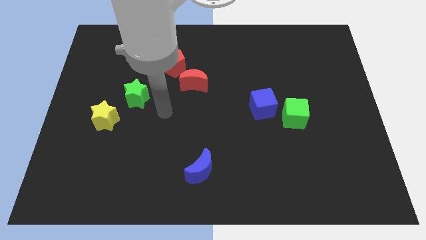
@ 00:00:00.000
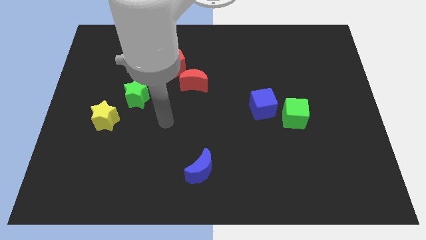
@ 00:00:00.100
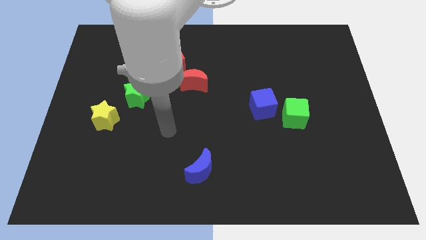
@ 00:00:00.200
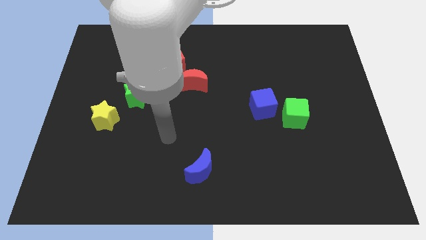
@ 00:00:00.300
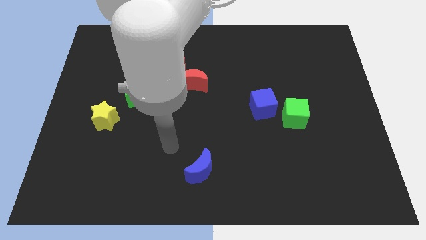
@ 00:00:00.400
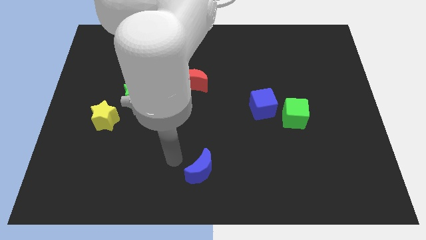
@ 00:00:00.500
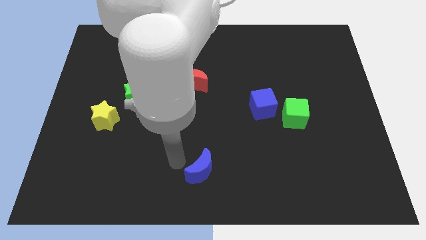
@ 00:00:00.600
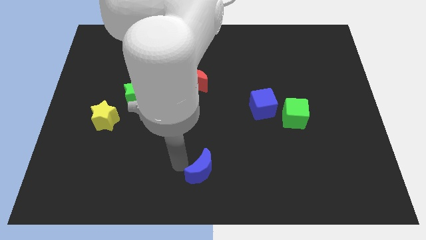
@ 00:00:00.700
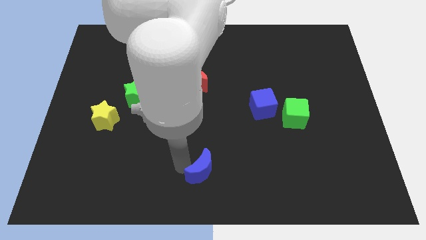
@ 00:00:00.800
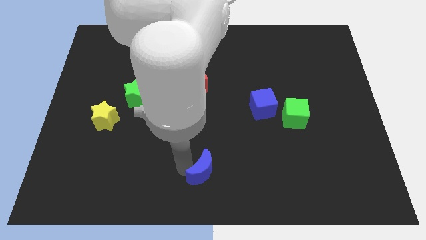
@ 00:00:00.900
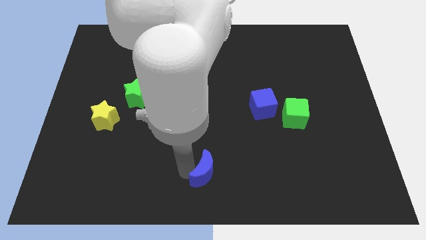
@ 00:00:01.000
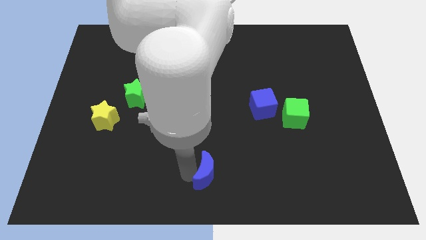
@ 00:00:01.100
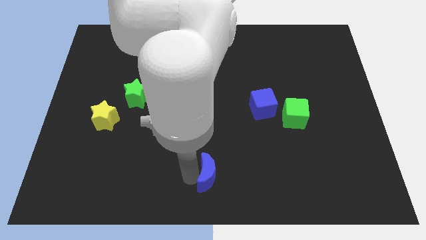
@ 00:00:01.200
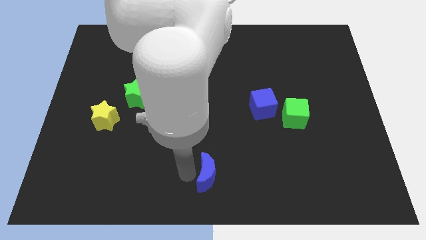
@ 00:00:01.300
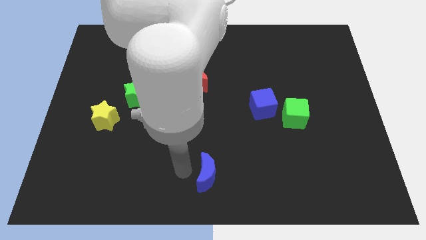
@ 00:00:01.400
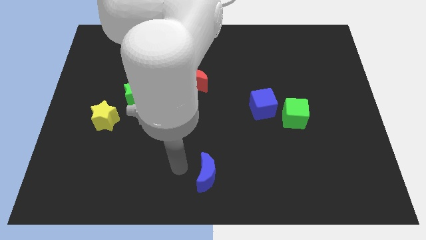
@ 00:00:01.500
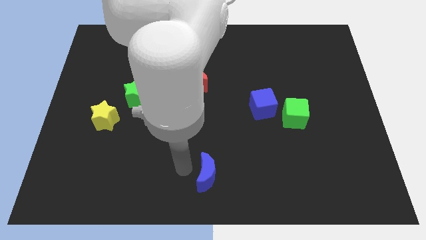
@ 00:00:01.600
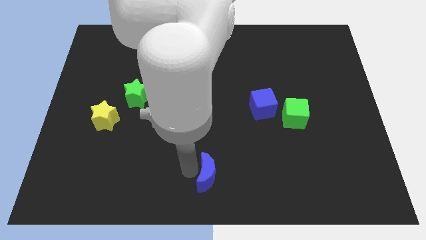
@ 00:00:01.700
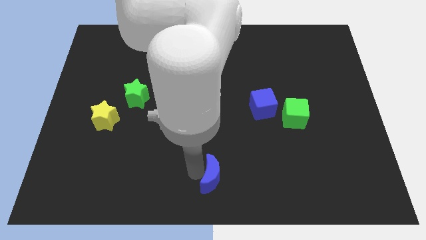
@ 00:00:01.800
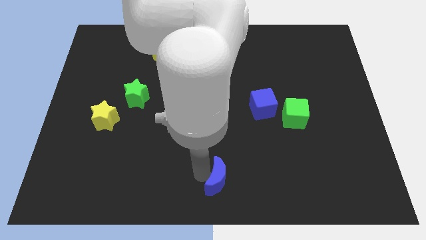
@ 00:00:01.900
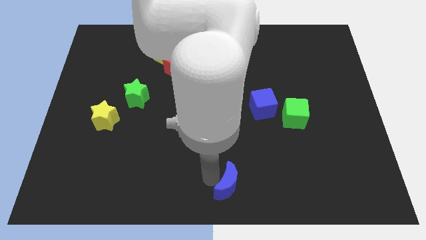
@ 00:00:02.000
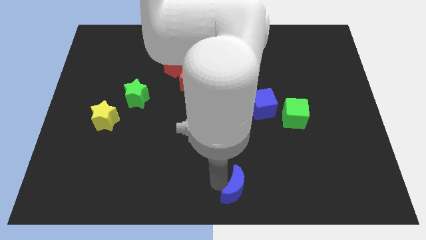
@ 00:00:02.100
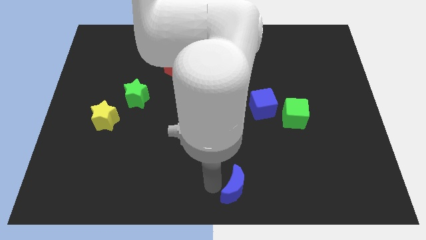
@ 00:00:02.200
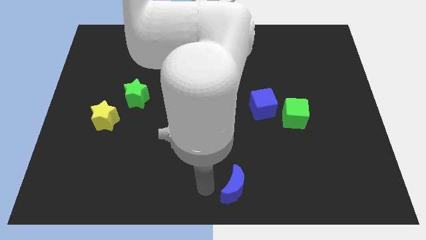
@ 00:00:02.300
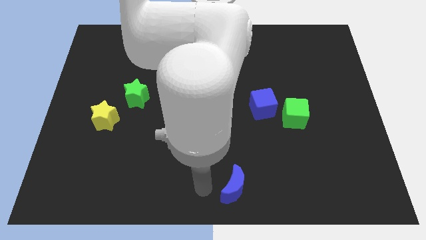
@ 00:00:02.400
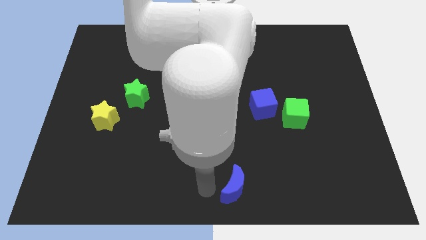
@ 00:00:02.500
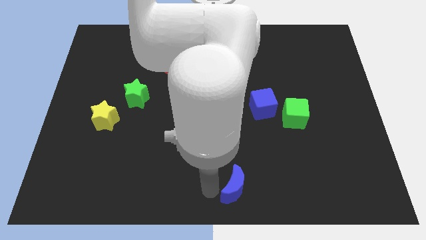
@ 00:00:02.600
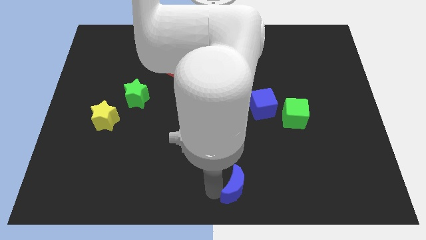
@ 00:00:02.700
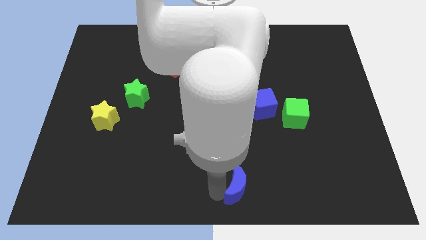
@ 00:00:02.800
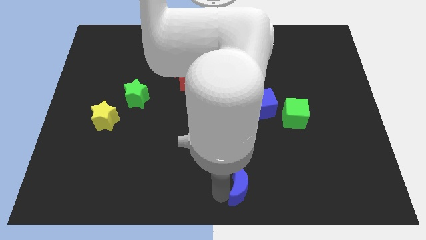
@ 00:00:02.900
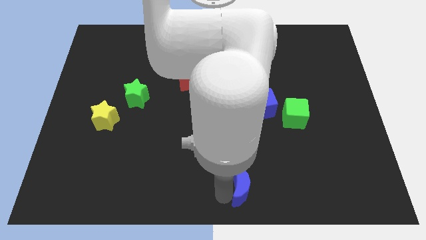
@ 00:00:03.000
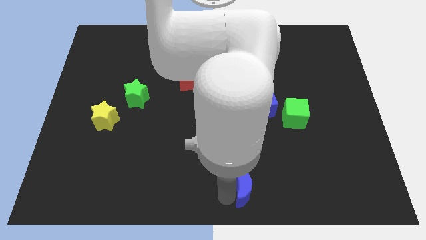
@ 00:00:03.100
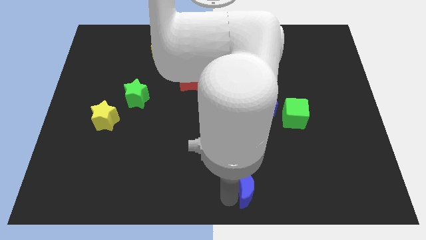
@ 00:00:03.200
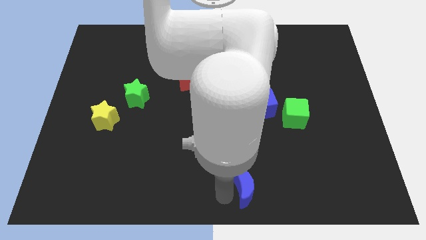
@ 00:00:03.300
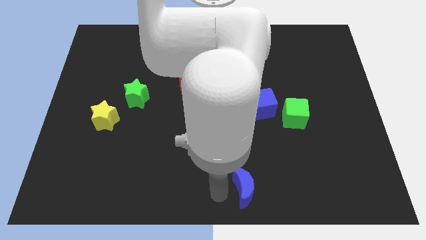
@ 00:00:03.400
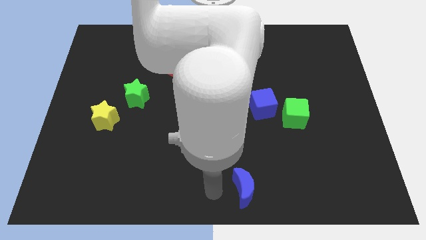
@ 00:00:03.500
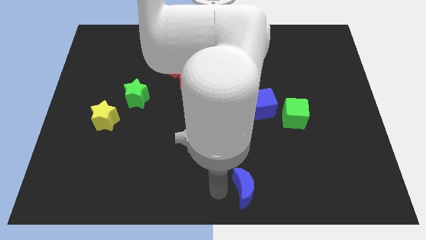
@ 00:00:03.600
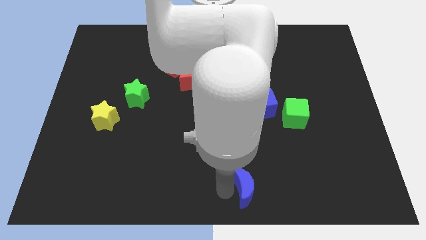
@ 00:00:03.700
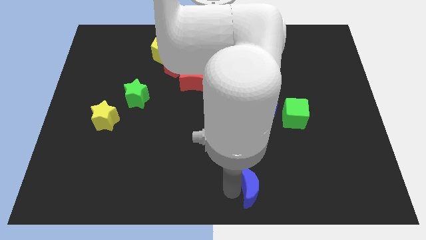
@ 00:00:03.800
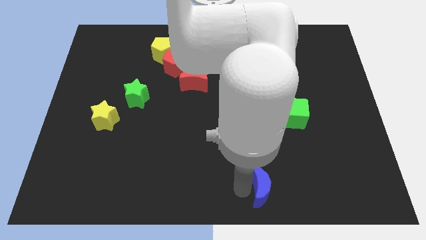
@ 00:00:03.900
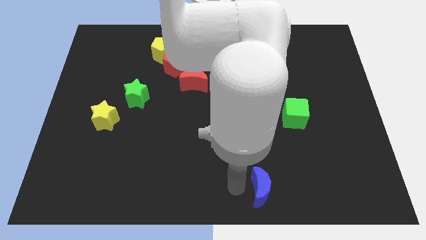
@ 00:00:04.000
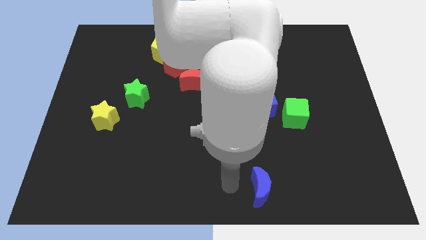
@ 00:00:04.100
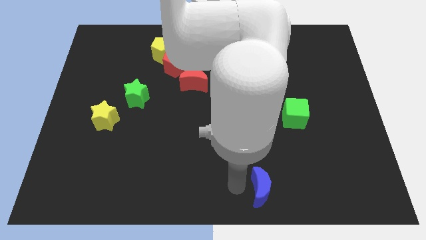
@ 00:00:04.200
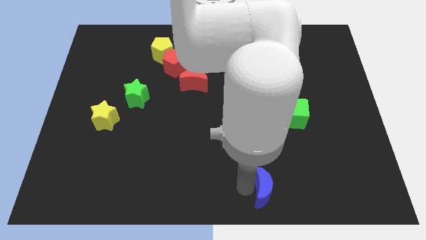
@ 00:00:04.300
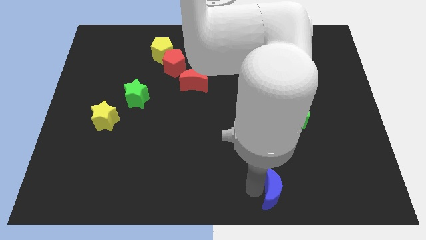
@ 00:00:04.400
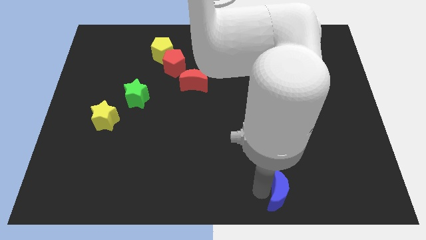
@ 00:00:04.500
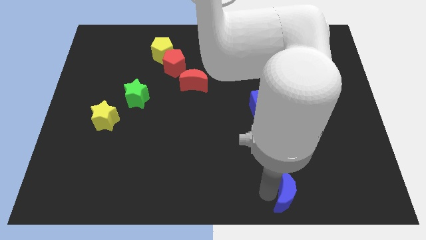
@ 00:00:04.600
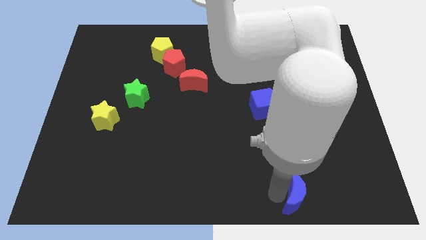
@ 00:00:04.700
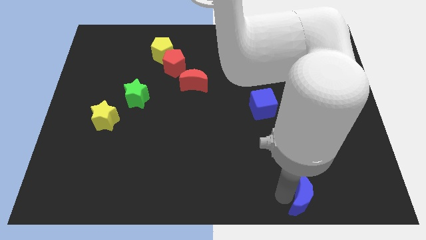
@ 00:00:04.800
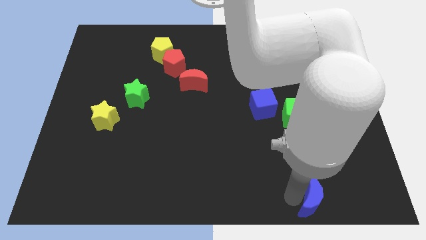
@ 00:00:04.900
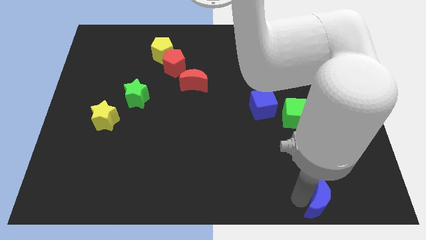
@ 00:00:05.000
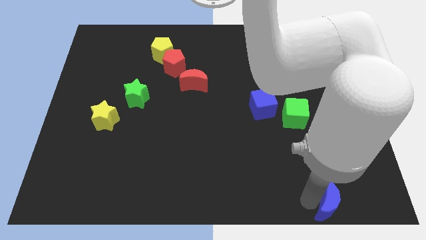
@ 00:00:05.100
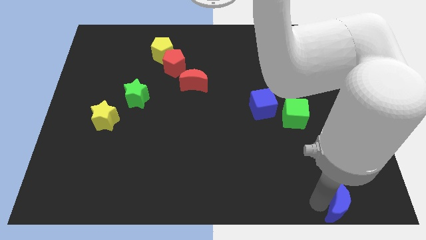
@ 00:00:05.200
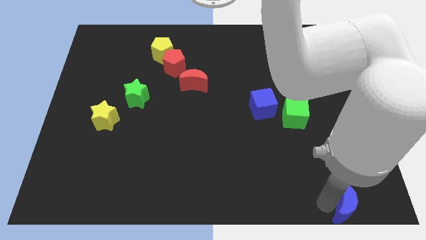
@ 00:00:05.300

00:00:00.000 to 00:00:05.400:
push the blue moon to the bottom right

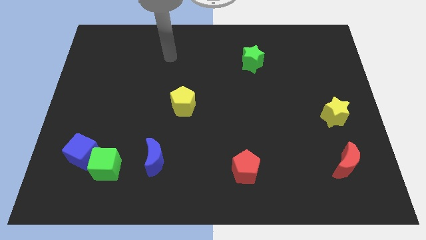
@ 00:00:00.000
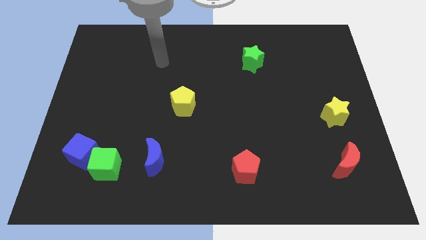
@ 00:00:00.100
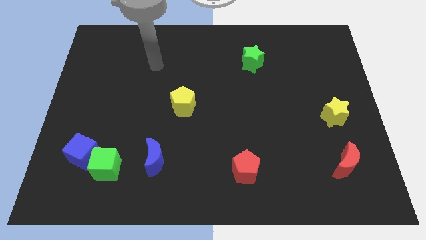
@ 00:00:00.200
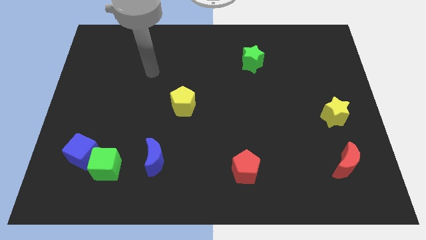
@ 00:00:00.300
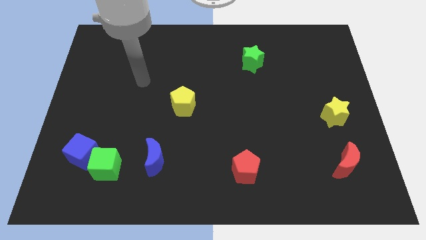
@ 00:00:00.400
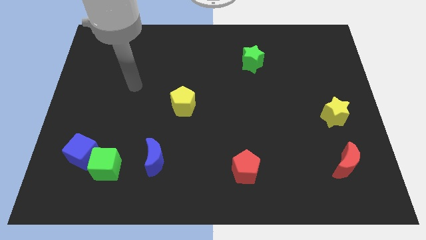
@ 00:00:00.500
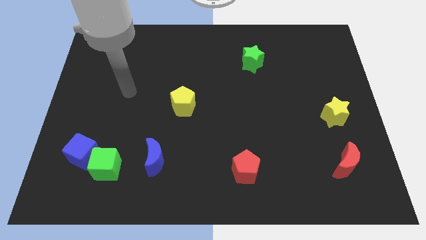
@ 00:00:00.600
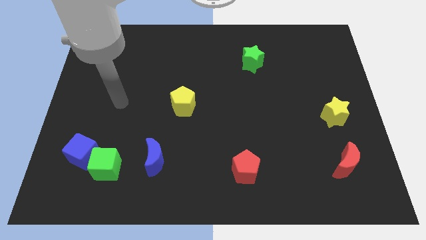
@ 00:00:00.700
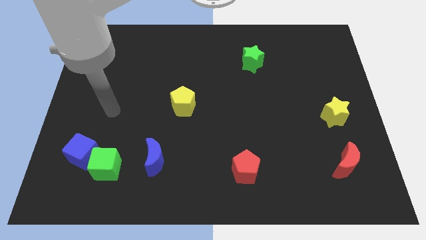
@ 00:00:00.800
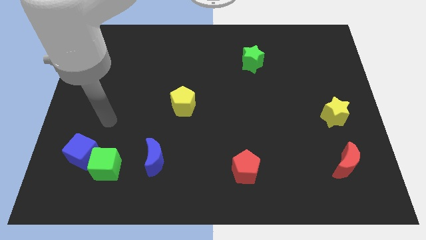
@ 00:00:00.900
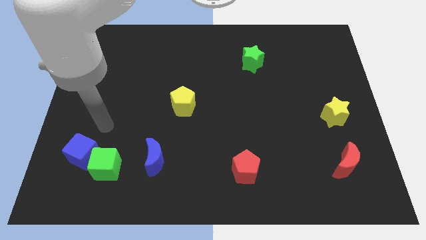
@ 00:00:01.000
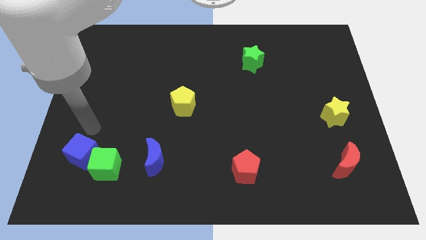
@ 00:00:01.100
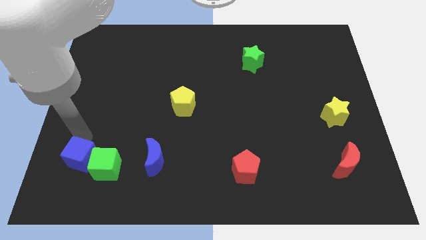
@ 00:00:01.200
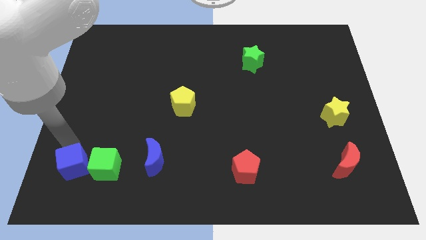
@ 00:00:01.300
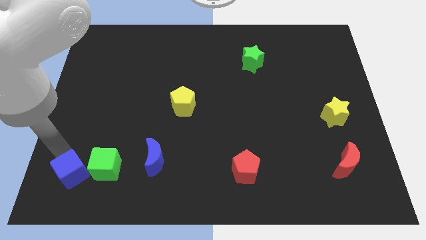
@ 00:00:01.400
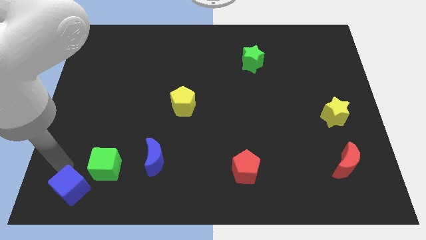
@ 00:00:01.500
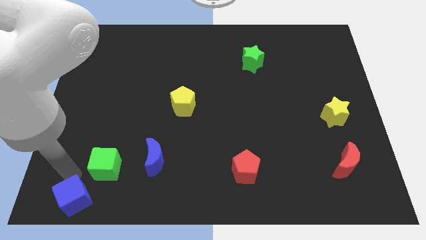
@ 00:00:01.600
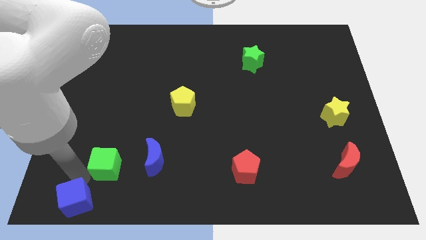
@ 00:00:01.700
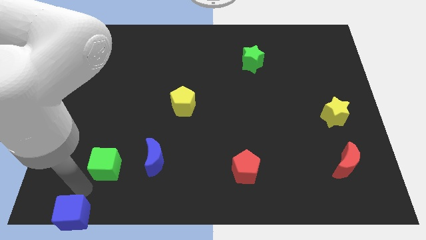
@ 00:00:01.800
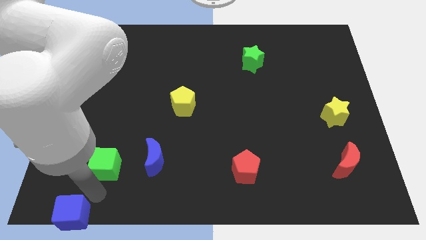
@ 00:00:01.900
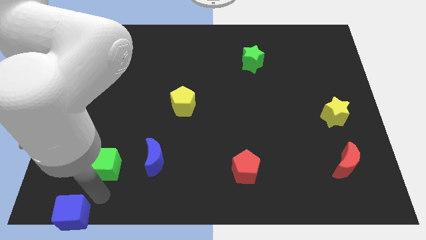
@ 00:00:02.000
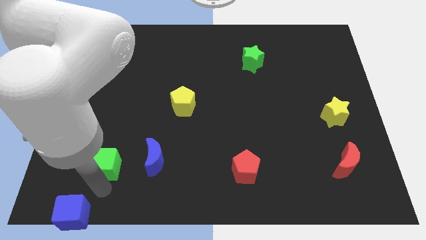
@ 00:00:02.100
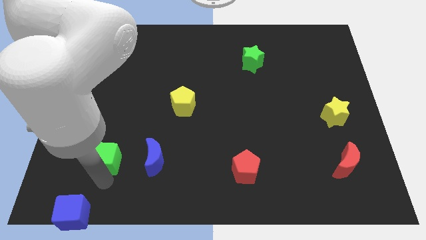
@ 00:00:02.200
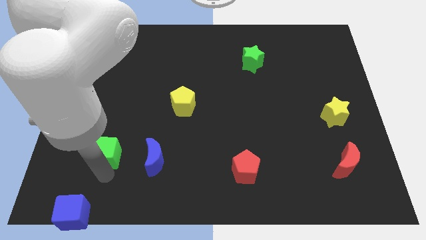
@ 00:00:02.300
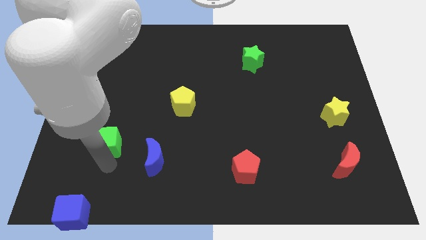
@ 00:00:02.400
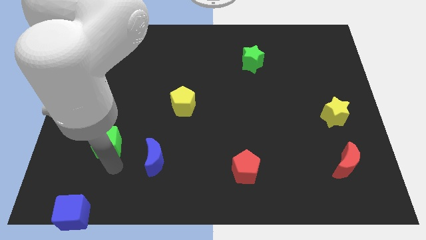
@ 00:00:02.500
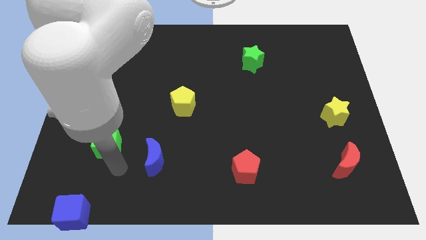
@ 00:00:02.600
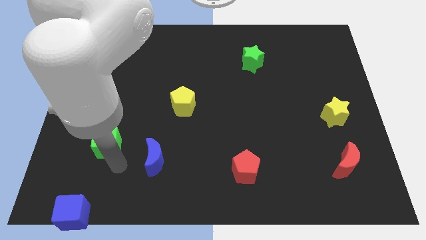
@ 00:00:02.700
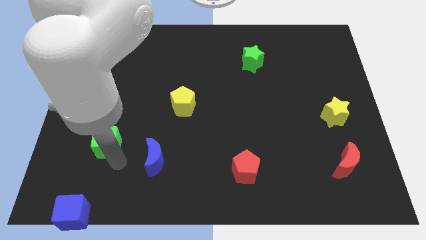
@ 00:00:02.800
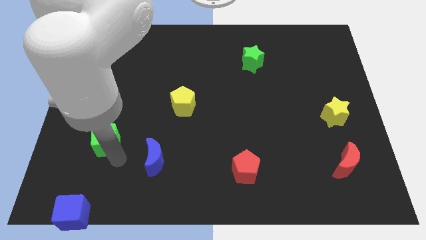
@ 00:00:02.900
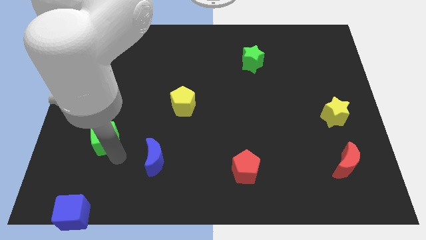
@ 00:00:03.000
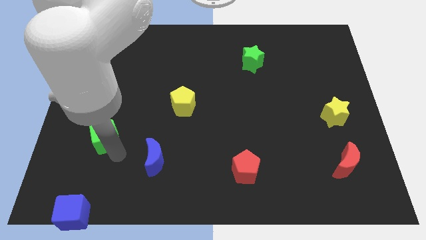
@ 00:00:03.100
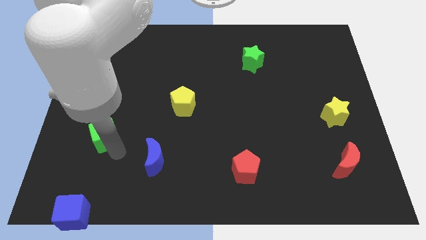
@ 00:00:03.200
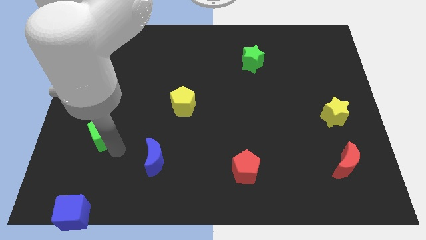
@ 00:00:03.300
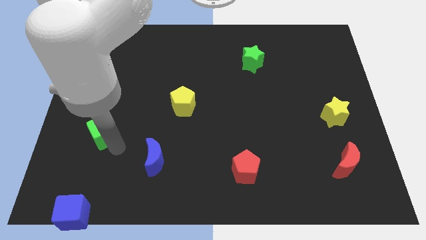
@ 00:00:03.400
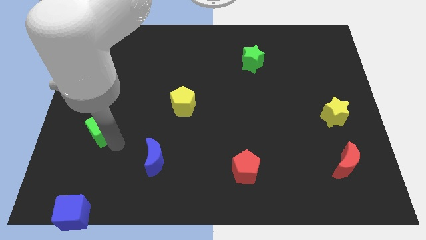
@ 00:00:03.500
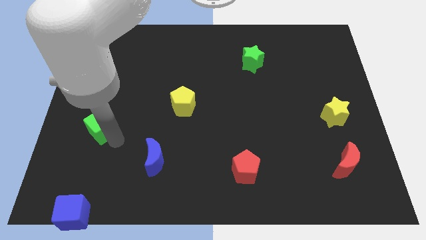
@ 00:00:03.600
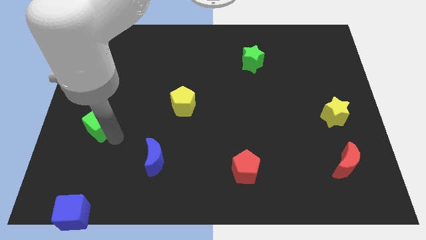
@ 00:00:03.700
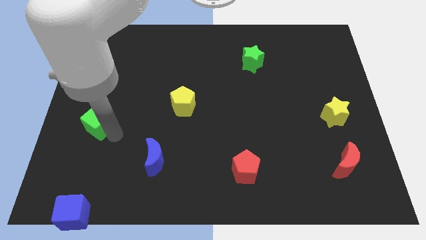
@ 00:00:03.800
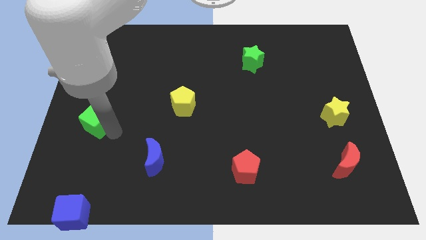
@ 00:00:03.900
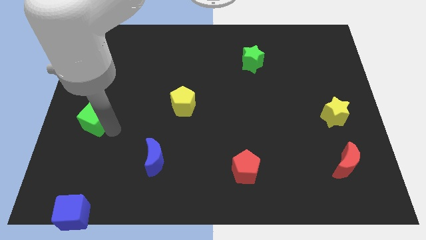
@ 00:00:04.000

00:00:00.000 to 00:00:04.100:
move the green cube to the left side
